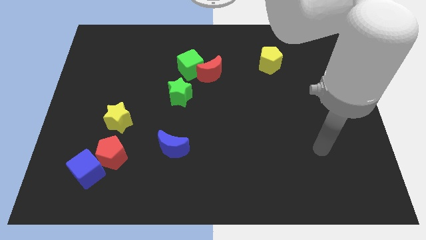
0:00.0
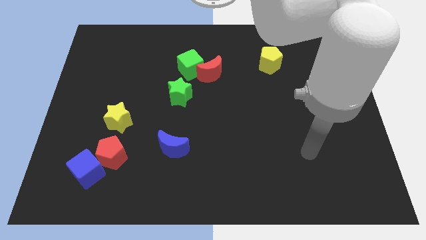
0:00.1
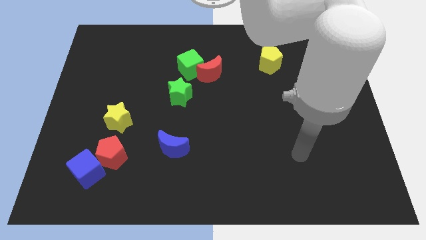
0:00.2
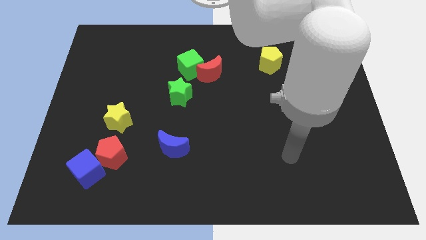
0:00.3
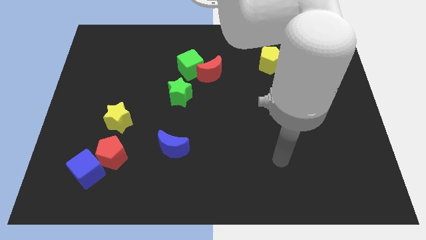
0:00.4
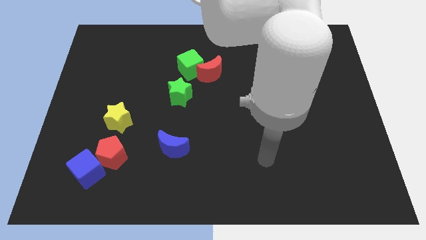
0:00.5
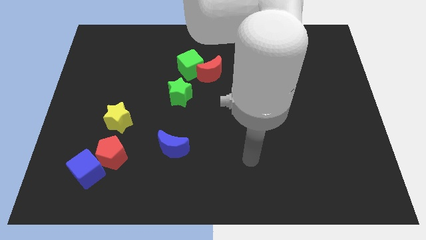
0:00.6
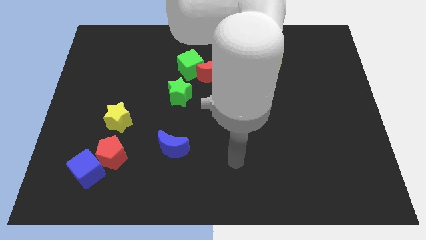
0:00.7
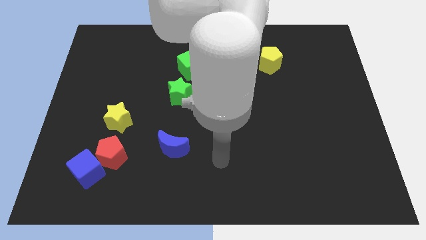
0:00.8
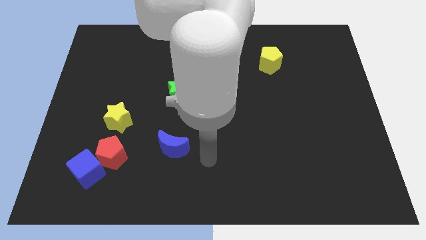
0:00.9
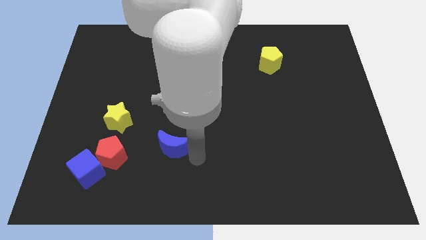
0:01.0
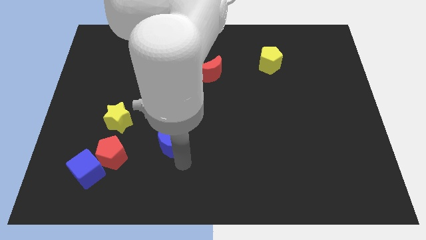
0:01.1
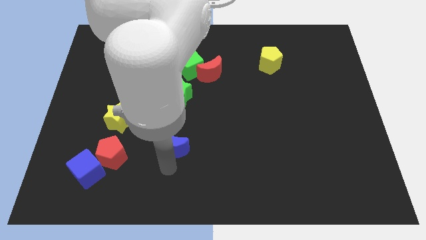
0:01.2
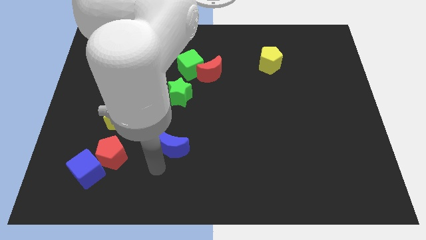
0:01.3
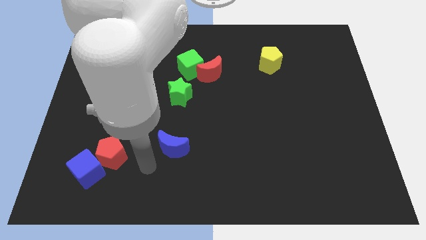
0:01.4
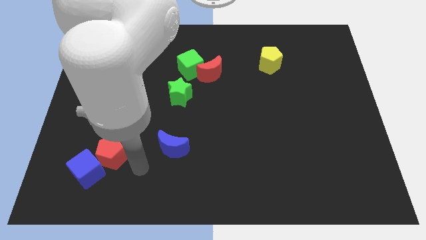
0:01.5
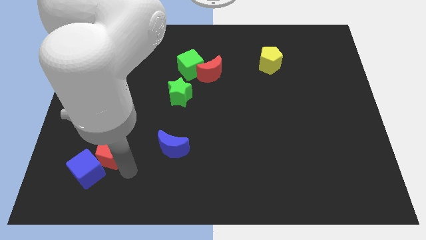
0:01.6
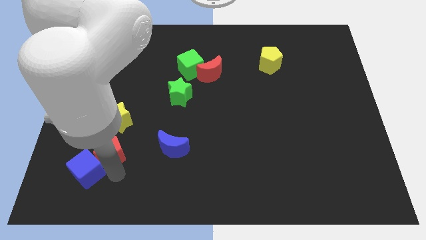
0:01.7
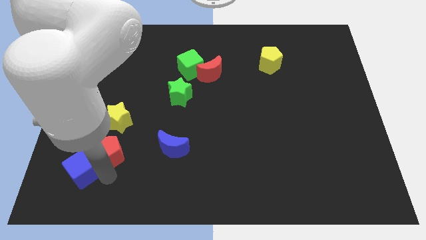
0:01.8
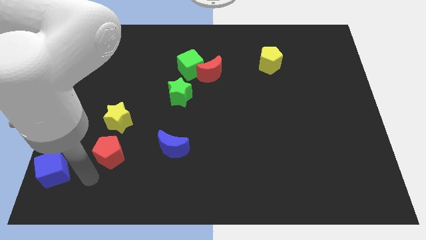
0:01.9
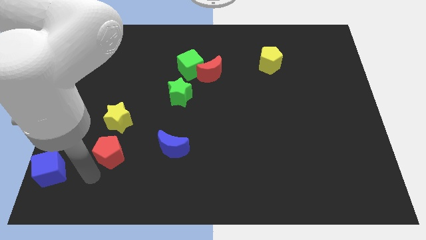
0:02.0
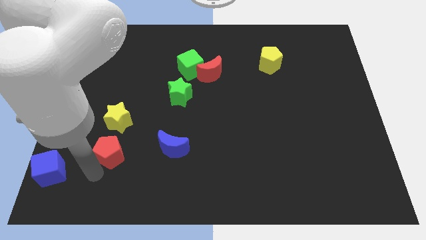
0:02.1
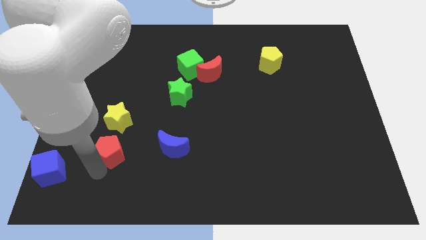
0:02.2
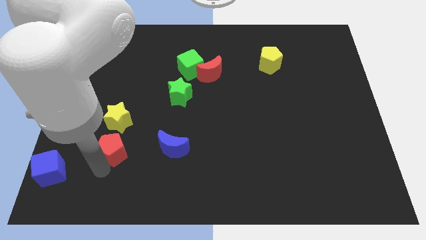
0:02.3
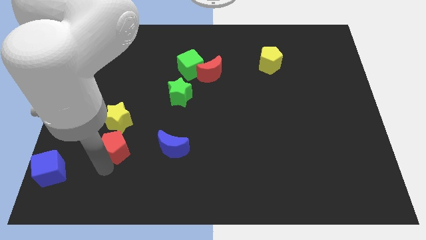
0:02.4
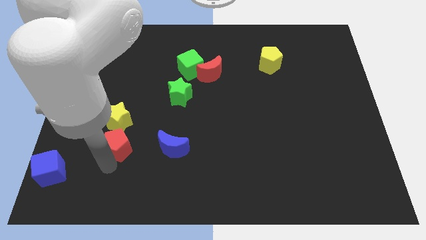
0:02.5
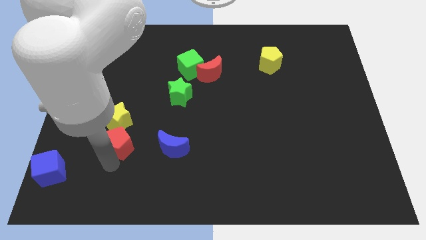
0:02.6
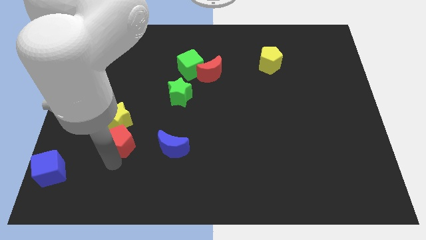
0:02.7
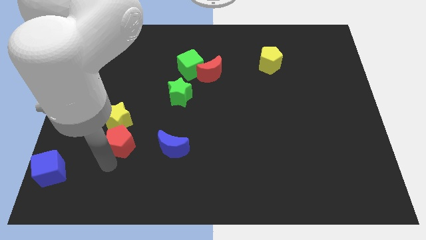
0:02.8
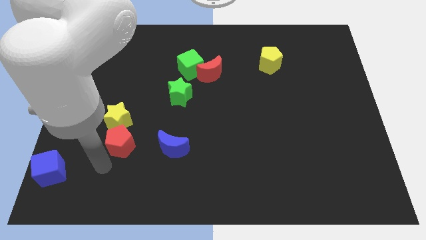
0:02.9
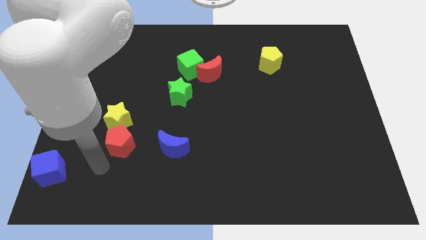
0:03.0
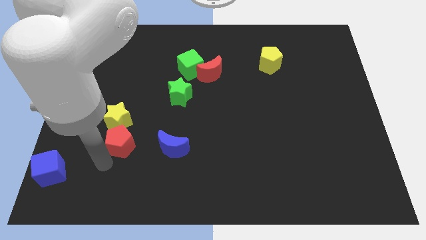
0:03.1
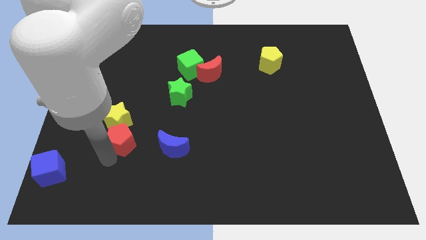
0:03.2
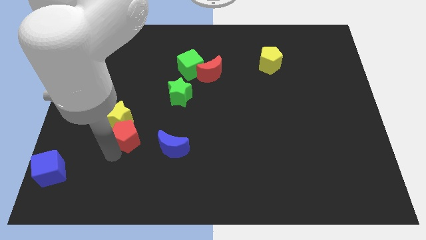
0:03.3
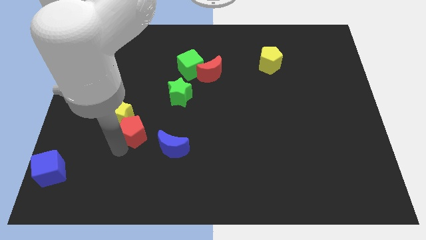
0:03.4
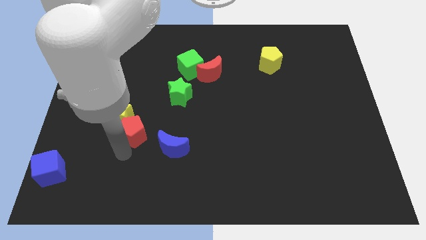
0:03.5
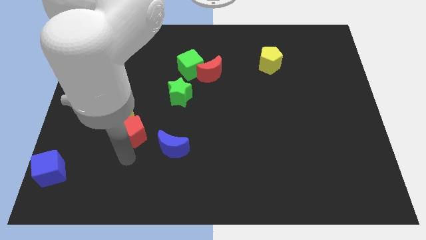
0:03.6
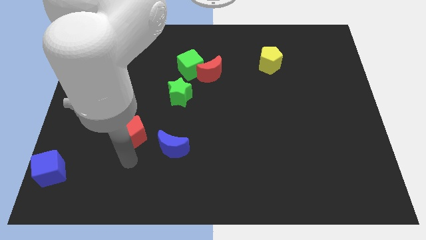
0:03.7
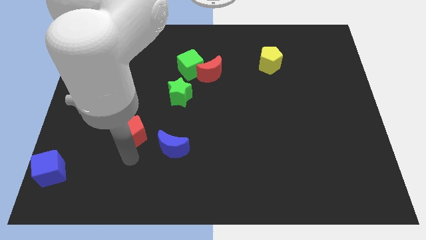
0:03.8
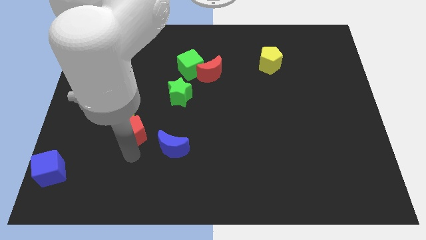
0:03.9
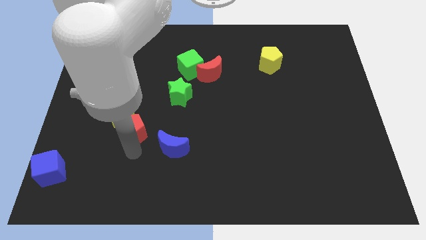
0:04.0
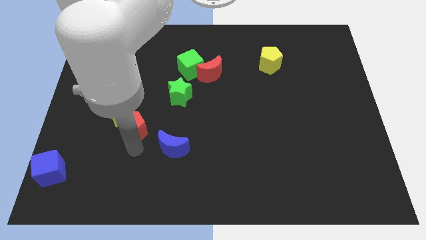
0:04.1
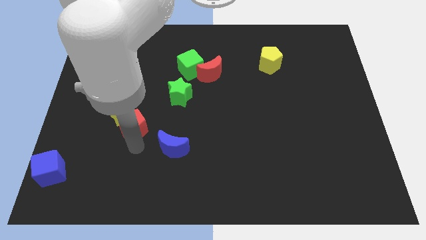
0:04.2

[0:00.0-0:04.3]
slide the red pentagon somewhat up

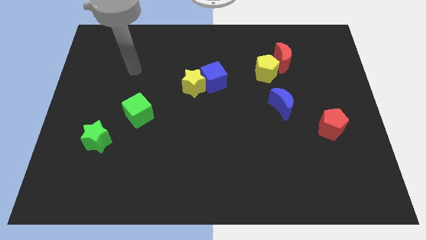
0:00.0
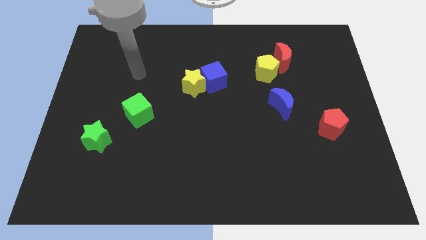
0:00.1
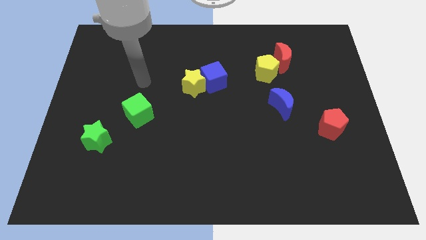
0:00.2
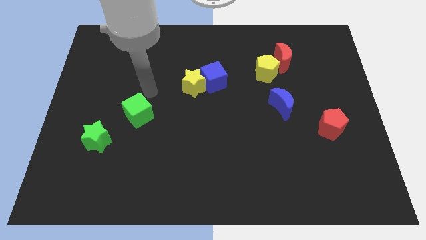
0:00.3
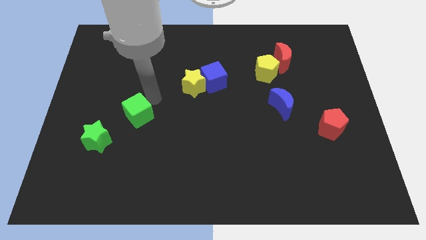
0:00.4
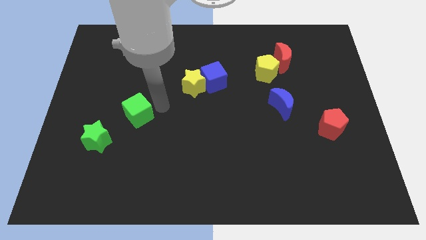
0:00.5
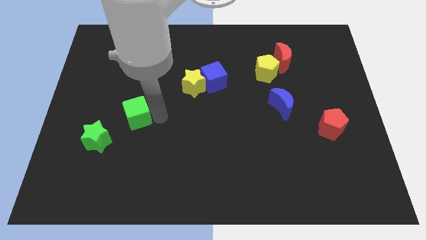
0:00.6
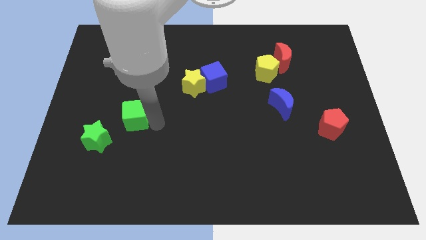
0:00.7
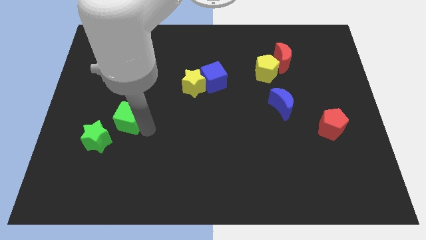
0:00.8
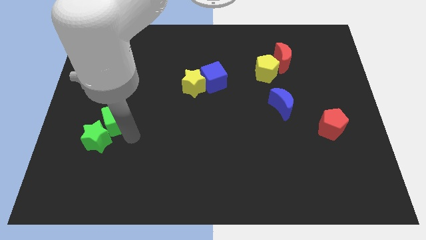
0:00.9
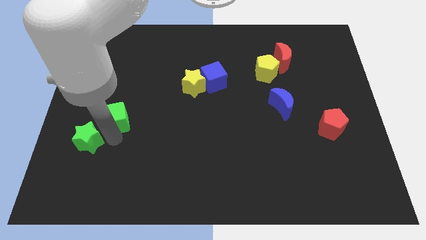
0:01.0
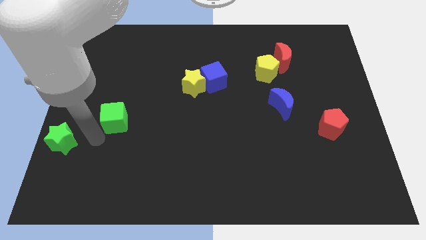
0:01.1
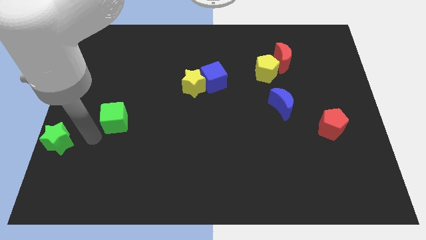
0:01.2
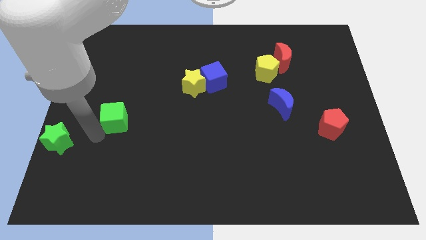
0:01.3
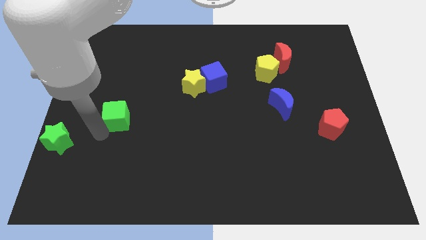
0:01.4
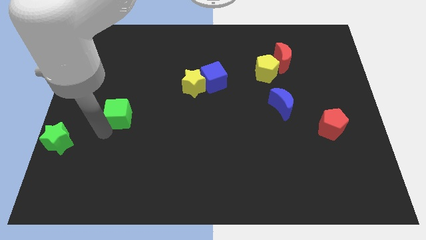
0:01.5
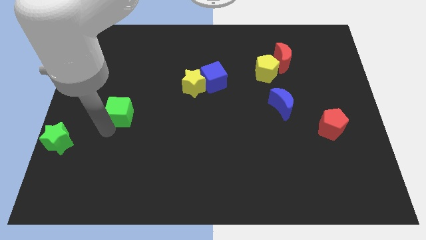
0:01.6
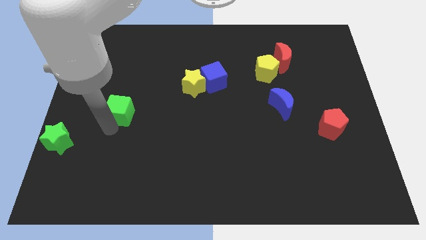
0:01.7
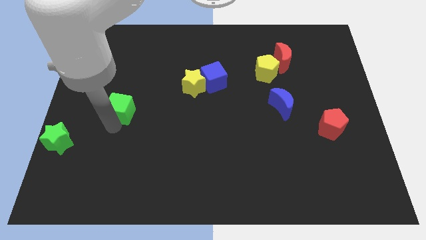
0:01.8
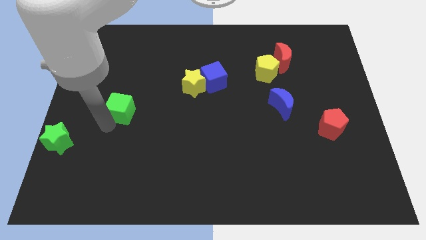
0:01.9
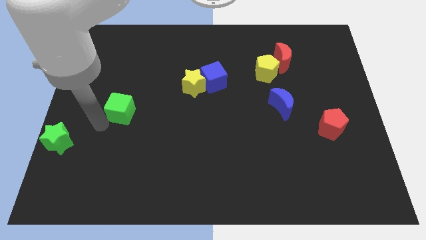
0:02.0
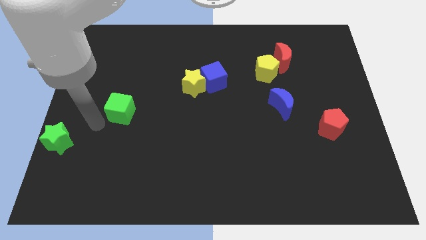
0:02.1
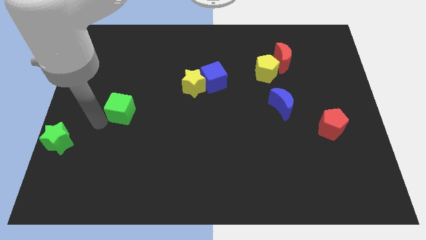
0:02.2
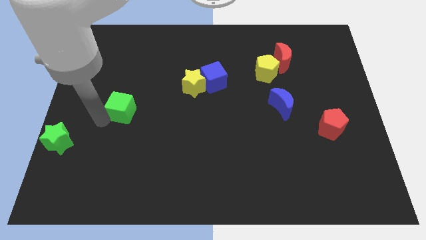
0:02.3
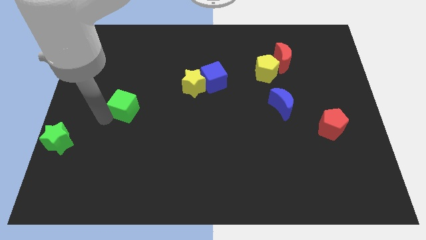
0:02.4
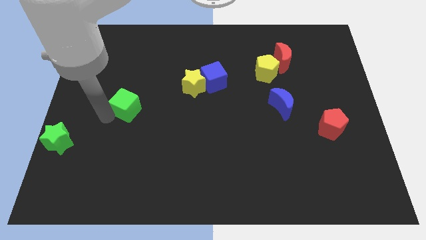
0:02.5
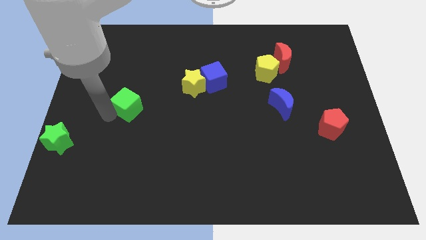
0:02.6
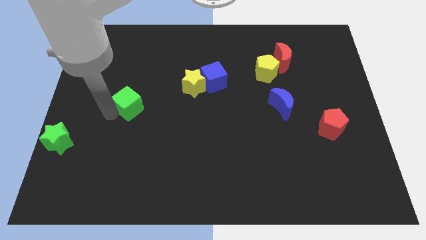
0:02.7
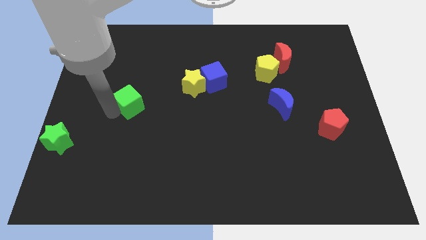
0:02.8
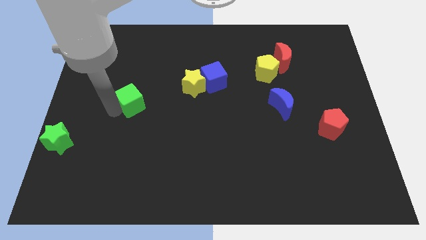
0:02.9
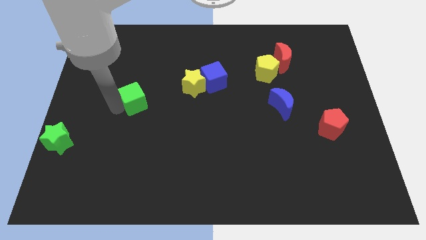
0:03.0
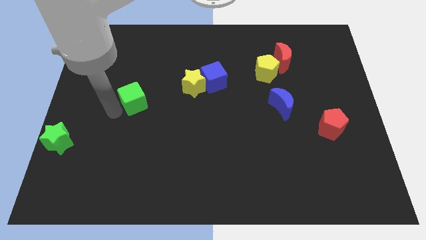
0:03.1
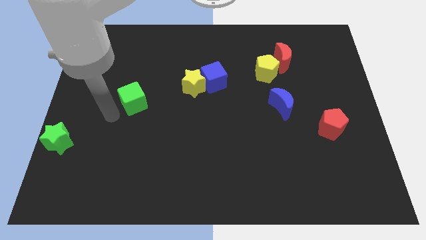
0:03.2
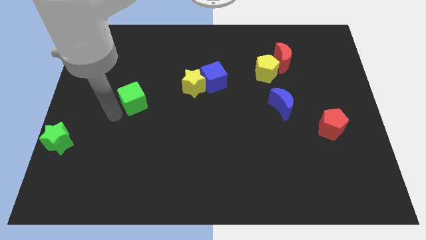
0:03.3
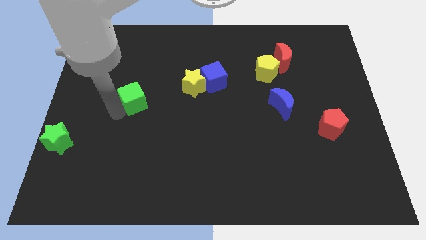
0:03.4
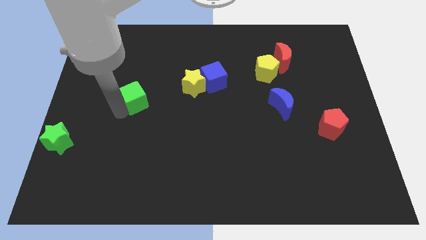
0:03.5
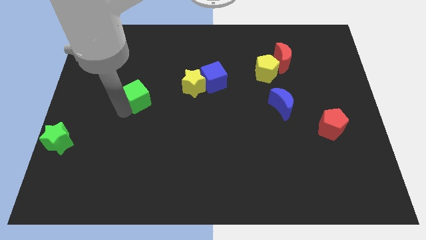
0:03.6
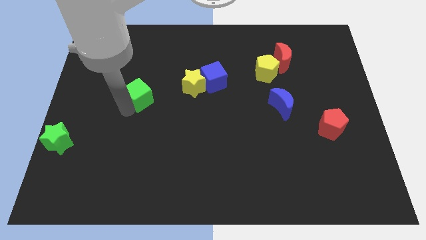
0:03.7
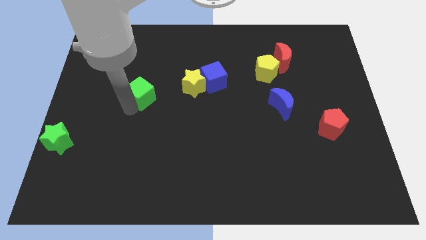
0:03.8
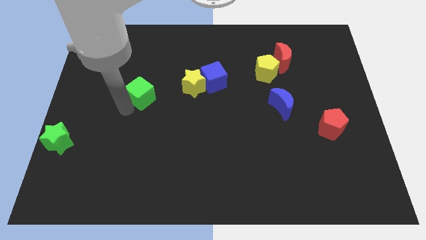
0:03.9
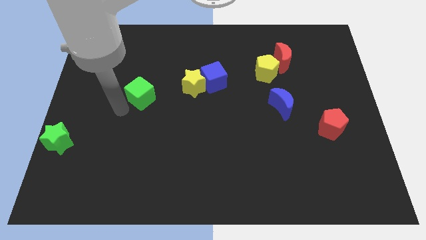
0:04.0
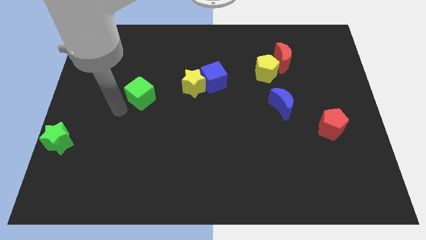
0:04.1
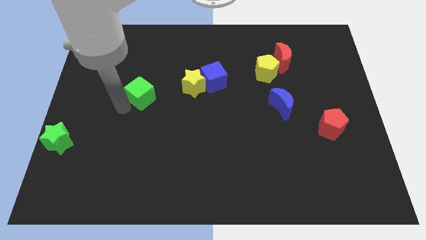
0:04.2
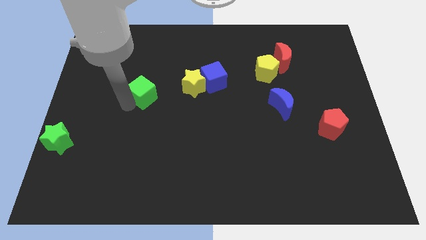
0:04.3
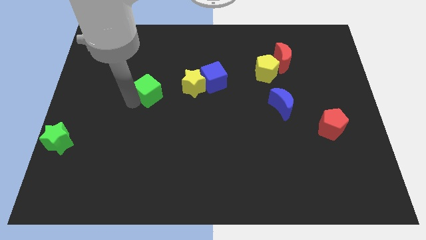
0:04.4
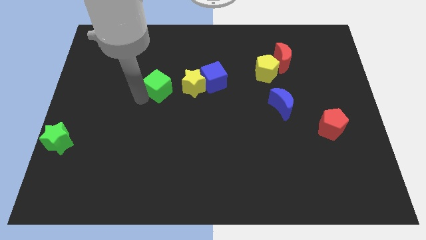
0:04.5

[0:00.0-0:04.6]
push the green cube somewhat diagonally upwards and to the right
